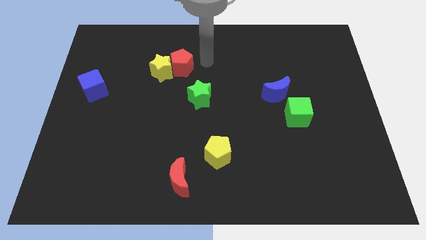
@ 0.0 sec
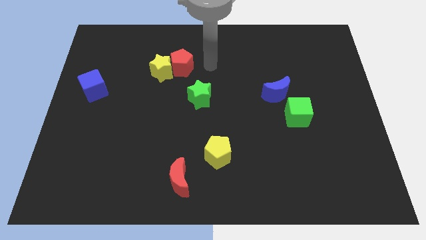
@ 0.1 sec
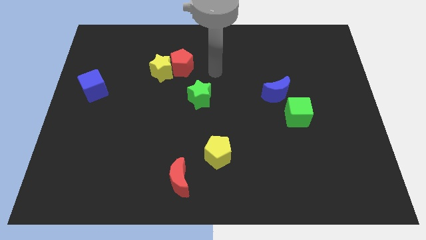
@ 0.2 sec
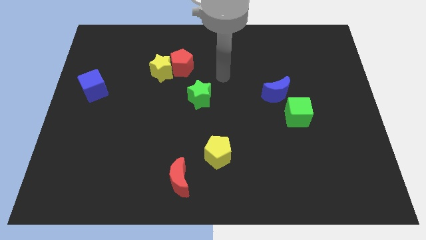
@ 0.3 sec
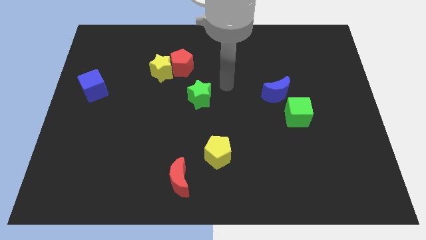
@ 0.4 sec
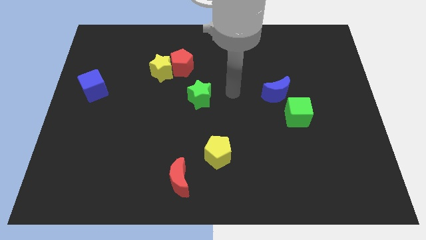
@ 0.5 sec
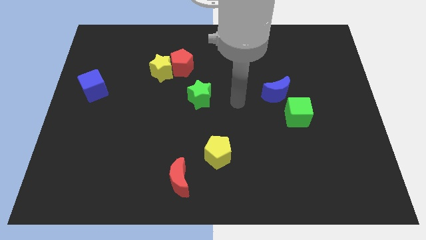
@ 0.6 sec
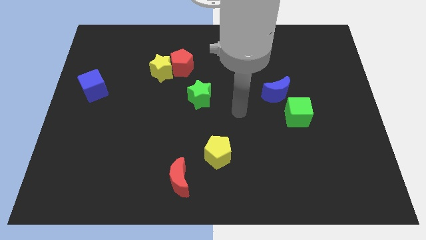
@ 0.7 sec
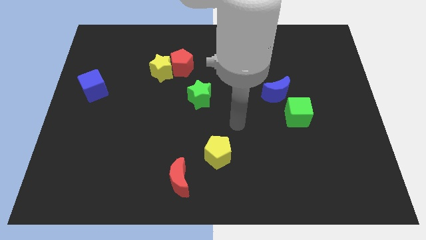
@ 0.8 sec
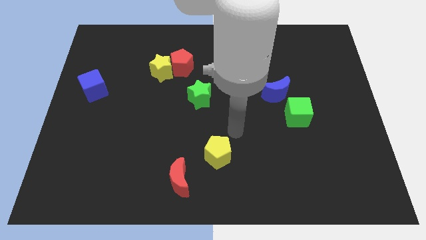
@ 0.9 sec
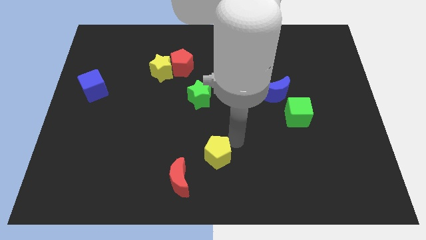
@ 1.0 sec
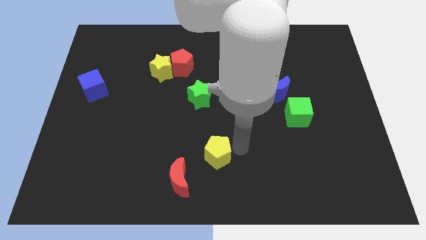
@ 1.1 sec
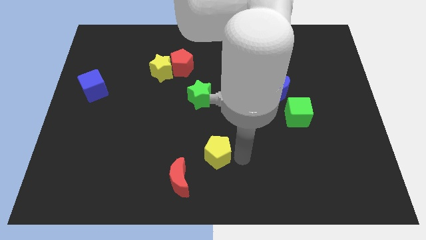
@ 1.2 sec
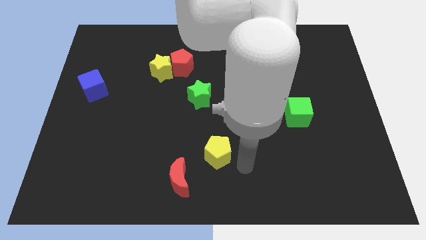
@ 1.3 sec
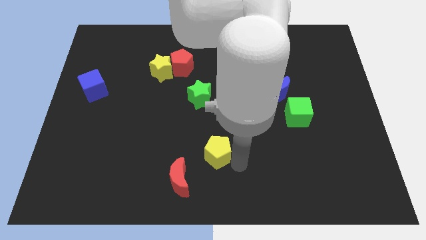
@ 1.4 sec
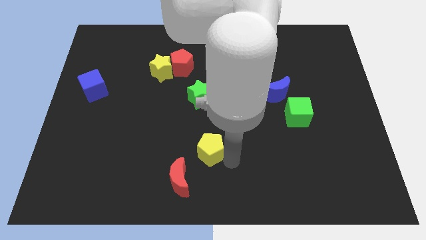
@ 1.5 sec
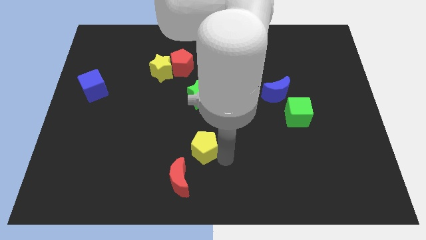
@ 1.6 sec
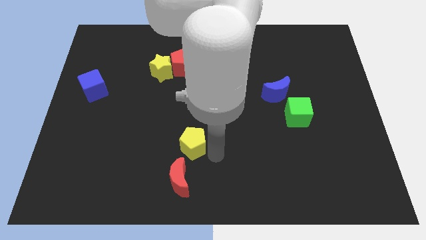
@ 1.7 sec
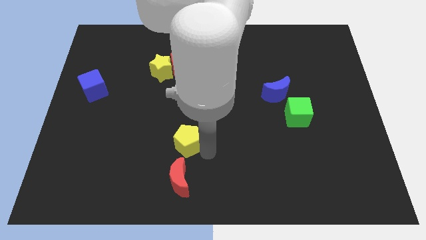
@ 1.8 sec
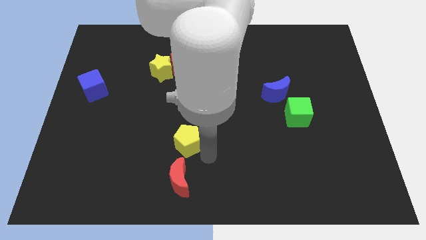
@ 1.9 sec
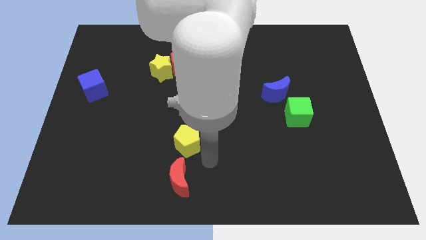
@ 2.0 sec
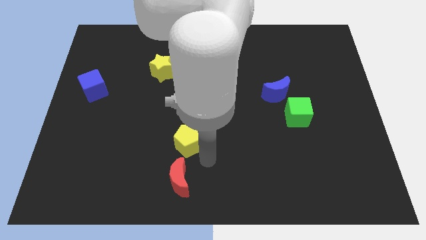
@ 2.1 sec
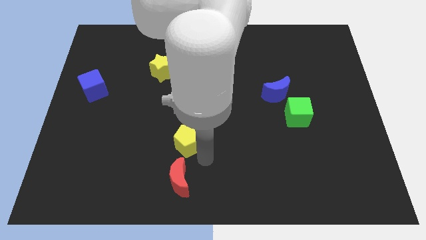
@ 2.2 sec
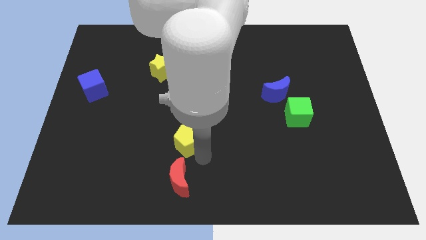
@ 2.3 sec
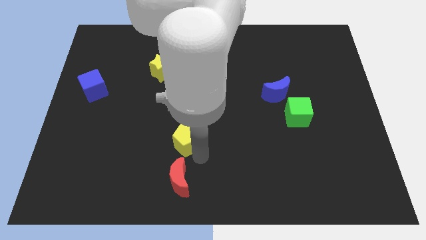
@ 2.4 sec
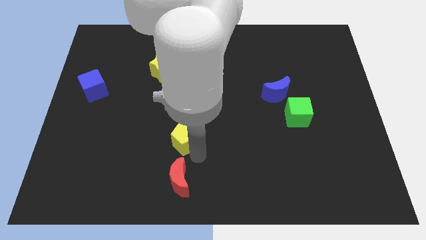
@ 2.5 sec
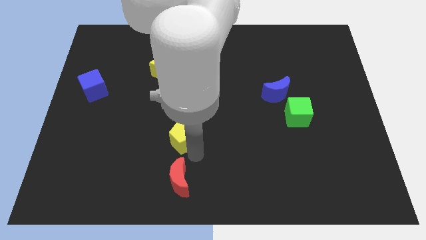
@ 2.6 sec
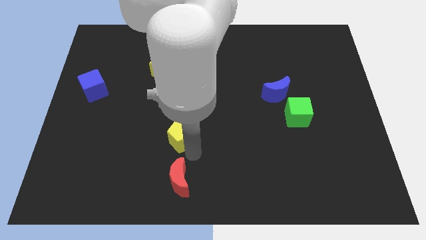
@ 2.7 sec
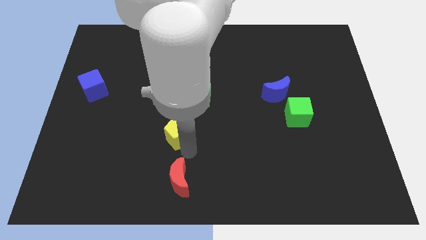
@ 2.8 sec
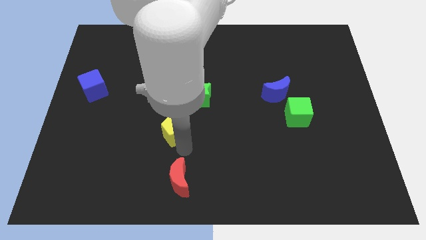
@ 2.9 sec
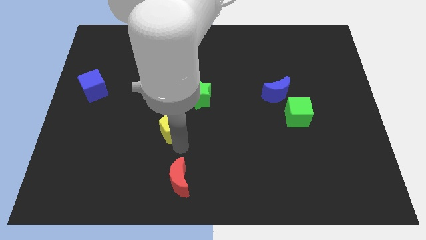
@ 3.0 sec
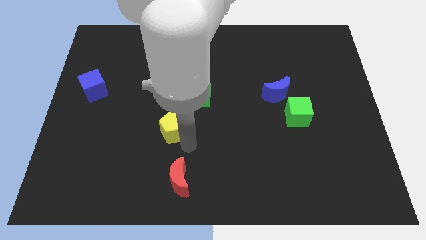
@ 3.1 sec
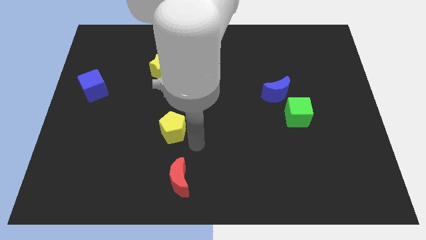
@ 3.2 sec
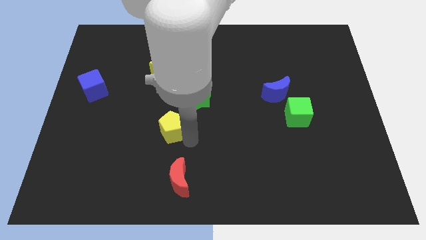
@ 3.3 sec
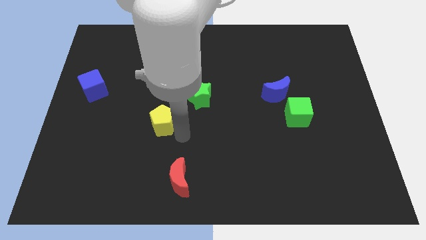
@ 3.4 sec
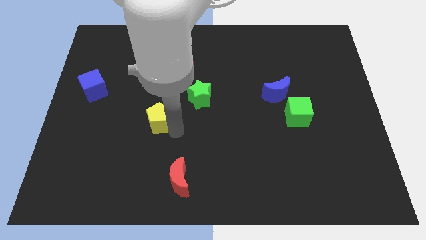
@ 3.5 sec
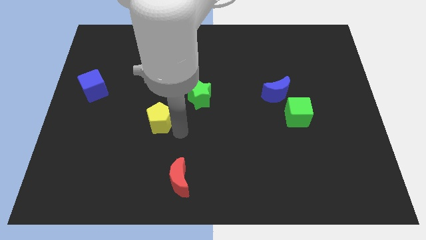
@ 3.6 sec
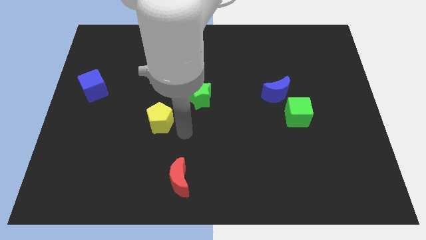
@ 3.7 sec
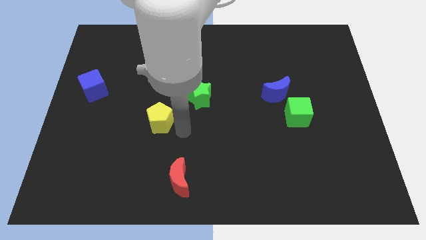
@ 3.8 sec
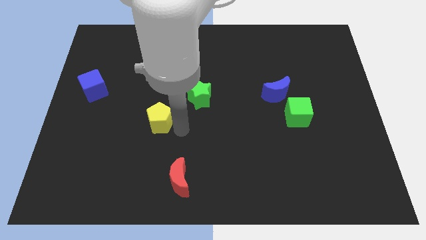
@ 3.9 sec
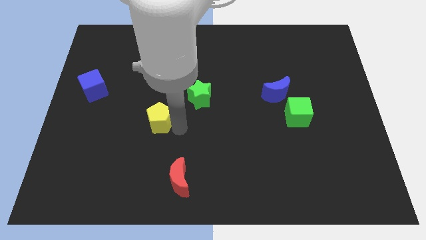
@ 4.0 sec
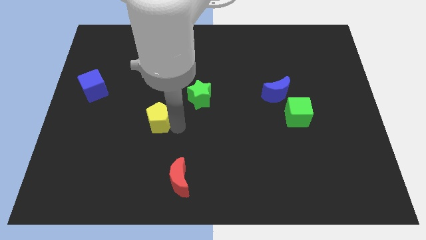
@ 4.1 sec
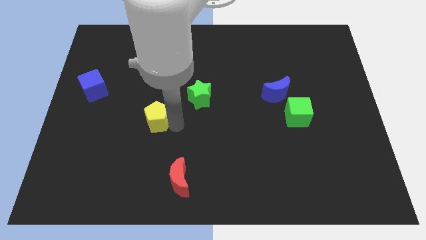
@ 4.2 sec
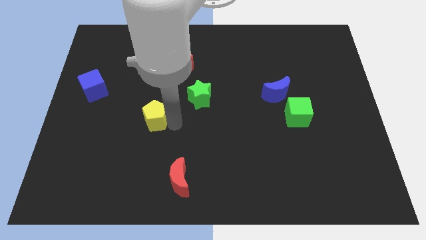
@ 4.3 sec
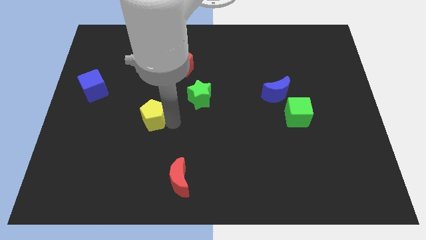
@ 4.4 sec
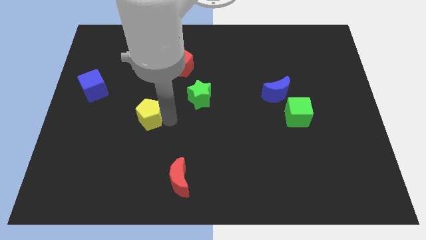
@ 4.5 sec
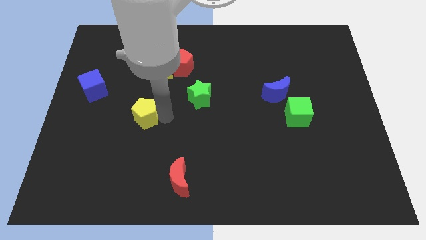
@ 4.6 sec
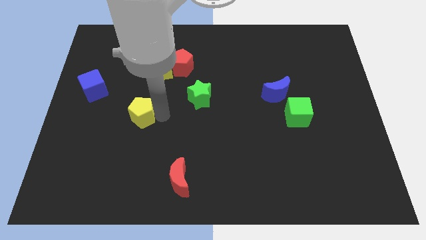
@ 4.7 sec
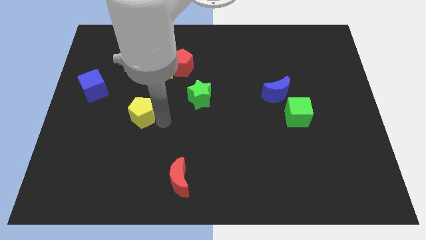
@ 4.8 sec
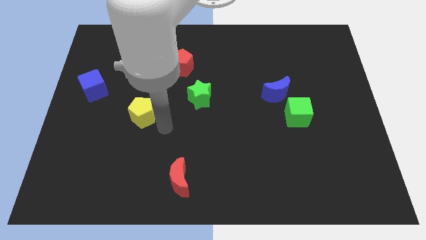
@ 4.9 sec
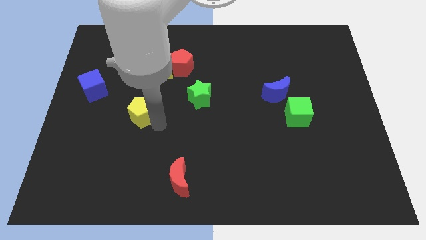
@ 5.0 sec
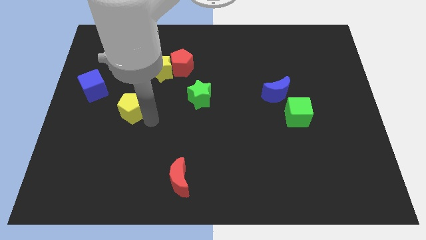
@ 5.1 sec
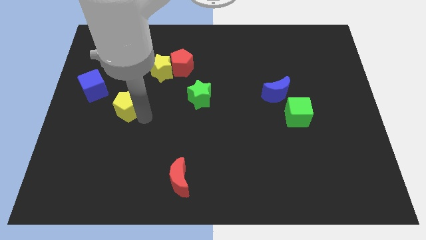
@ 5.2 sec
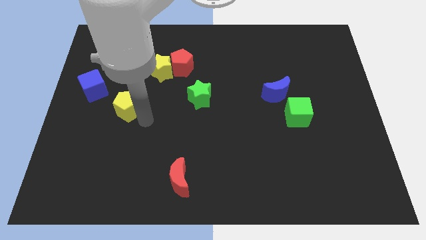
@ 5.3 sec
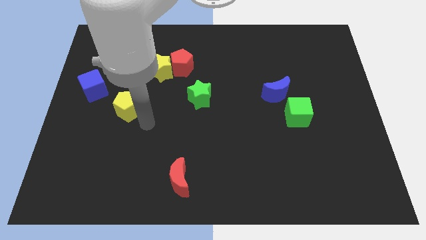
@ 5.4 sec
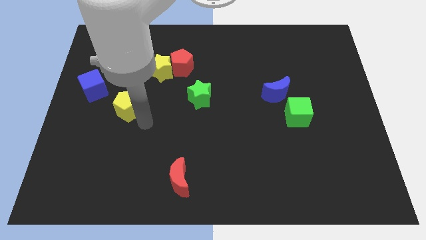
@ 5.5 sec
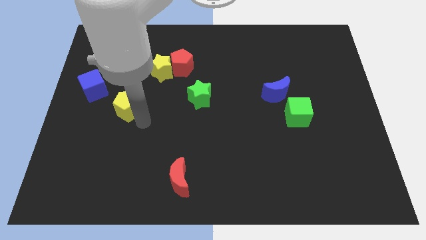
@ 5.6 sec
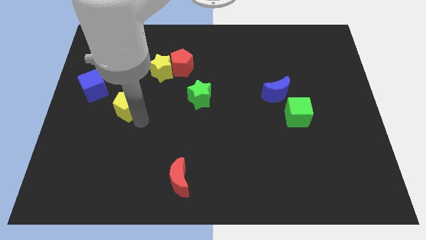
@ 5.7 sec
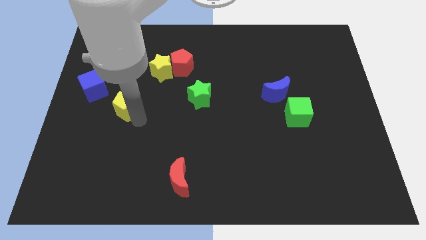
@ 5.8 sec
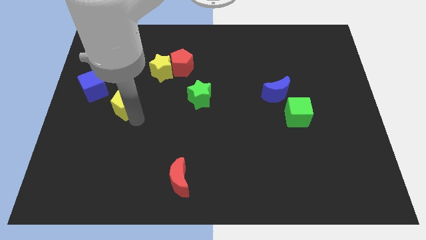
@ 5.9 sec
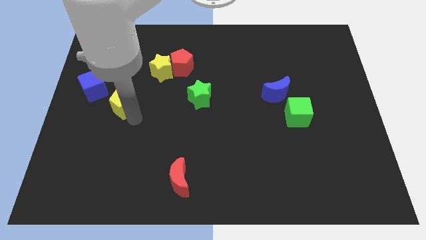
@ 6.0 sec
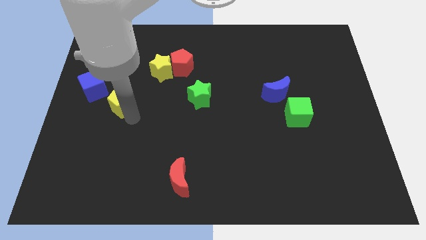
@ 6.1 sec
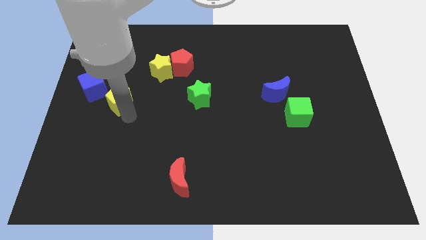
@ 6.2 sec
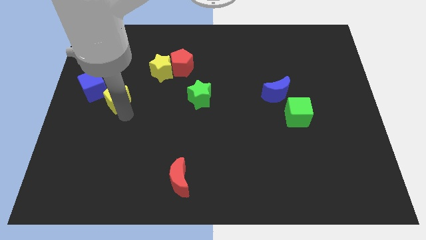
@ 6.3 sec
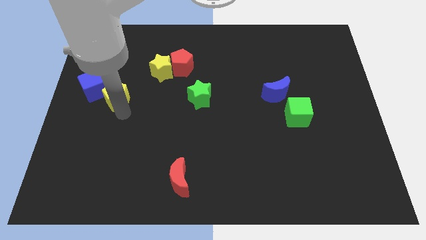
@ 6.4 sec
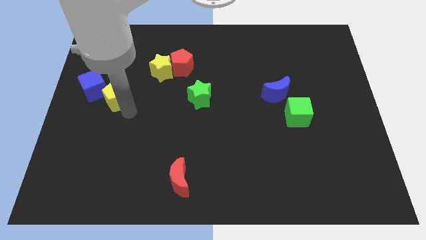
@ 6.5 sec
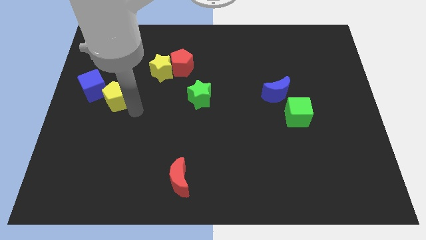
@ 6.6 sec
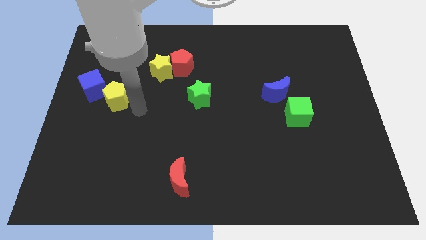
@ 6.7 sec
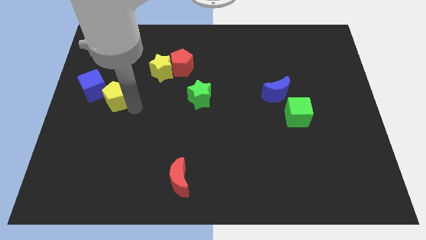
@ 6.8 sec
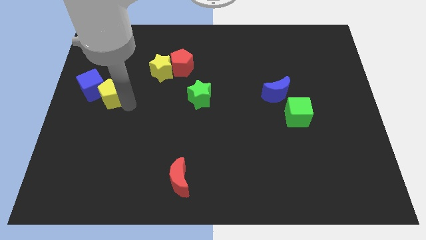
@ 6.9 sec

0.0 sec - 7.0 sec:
slide the yellow pentagon next to the blue cube
